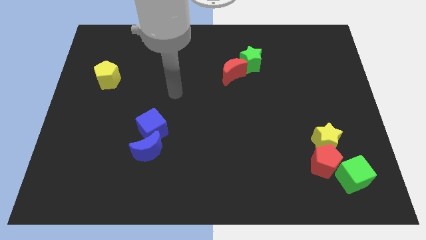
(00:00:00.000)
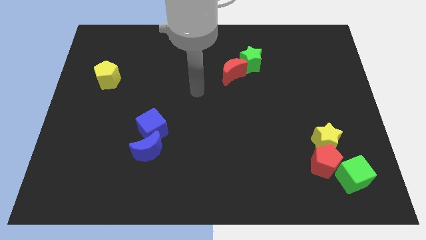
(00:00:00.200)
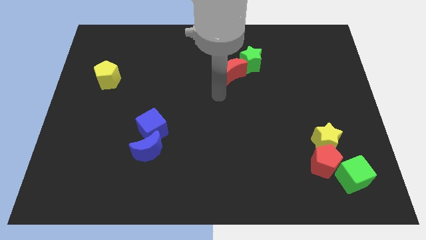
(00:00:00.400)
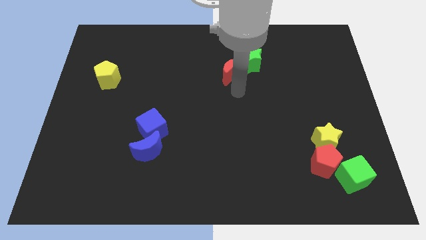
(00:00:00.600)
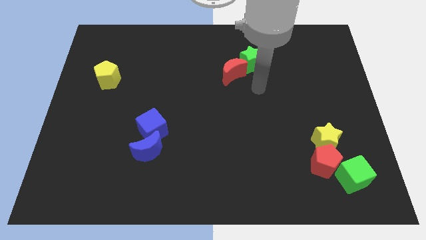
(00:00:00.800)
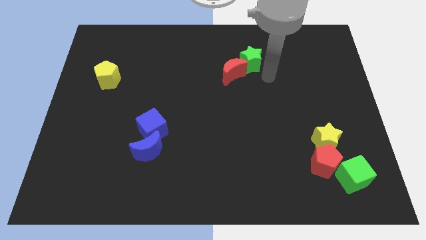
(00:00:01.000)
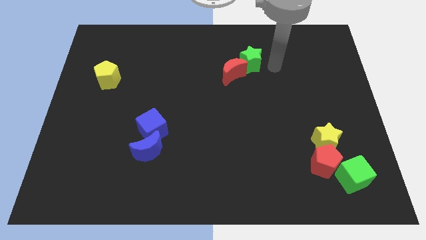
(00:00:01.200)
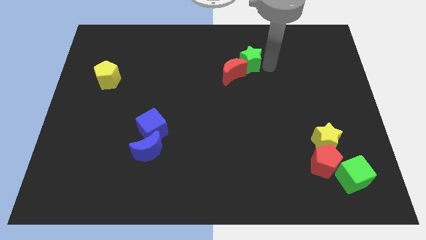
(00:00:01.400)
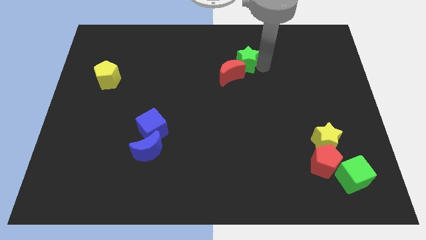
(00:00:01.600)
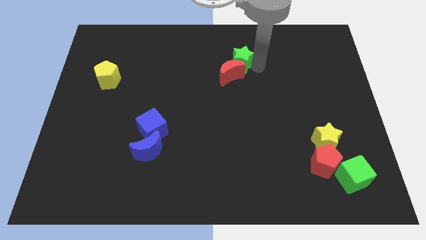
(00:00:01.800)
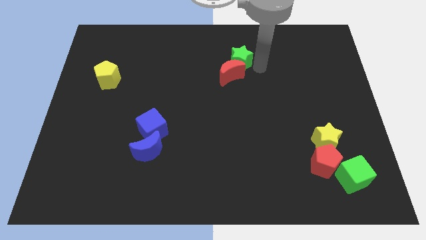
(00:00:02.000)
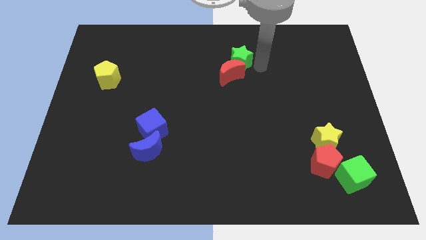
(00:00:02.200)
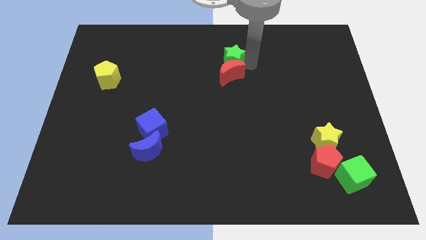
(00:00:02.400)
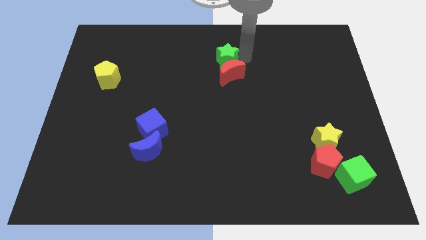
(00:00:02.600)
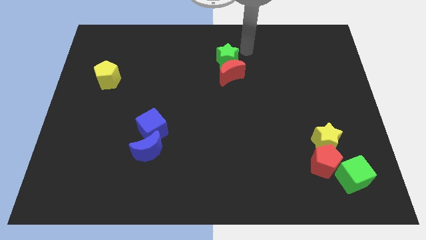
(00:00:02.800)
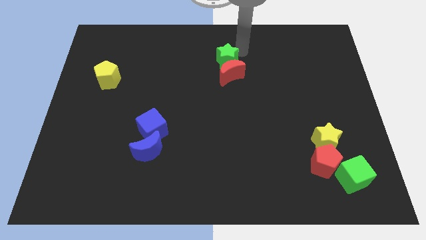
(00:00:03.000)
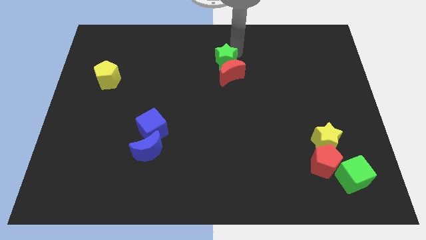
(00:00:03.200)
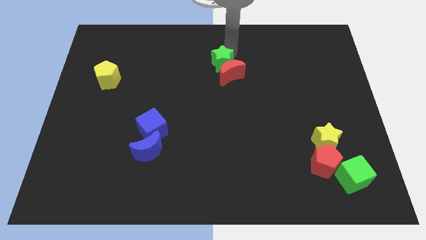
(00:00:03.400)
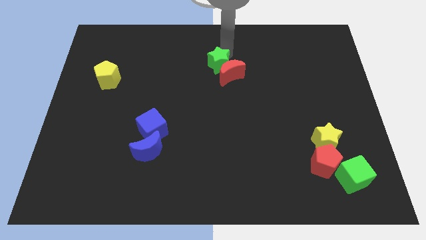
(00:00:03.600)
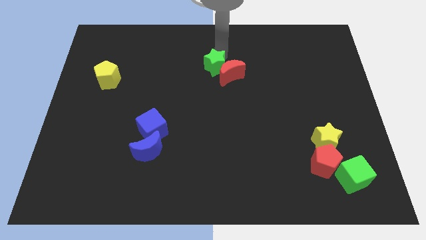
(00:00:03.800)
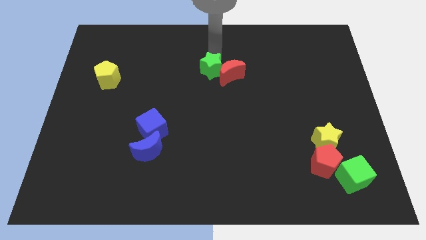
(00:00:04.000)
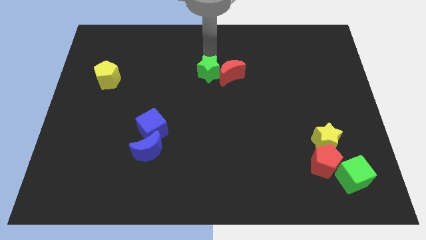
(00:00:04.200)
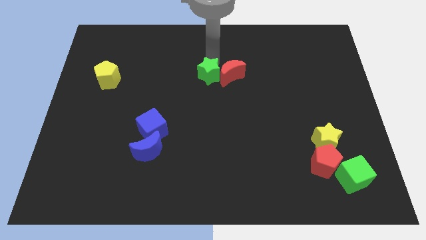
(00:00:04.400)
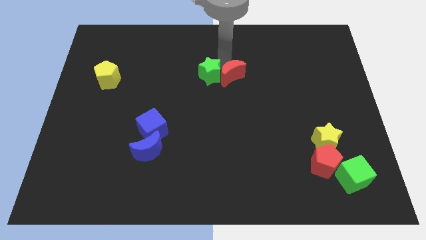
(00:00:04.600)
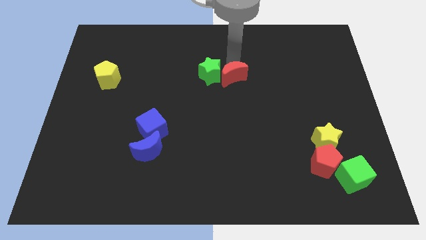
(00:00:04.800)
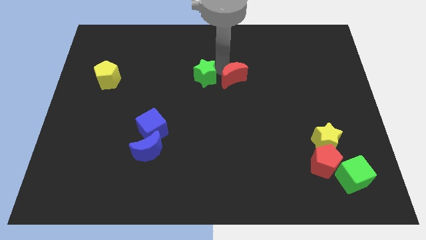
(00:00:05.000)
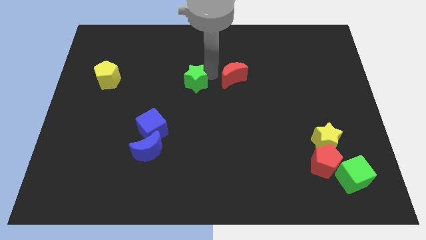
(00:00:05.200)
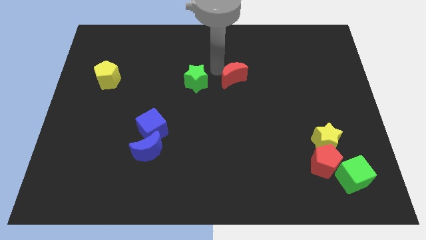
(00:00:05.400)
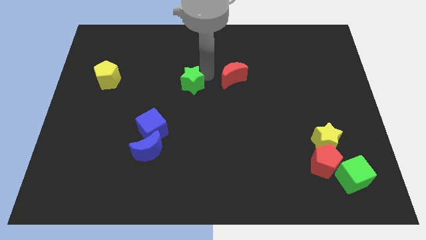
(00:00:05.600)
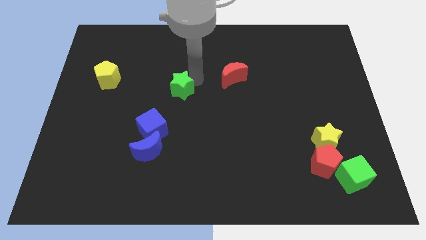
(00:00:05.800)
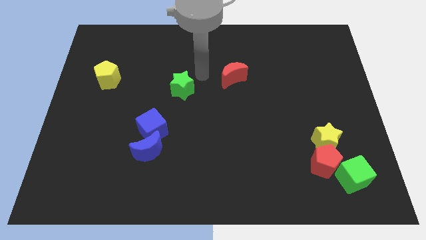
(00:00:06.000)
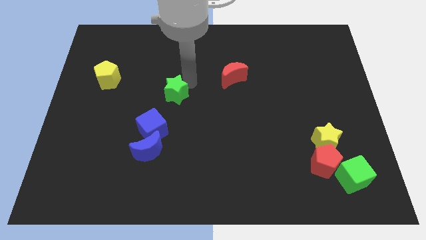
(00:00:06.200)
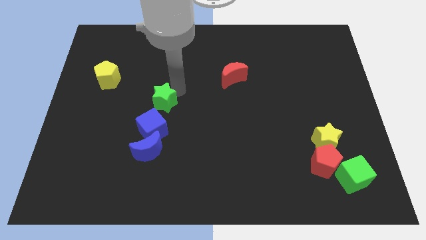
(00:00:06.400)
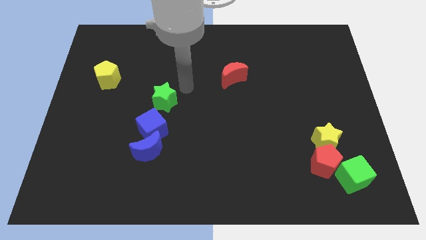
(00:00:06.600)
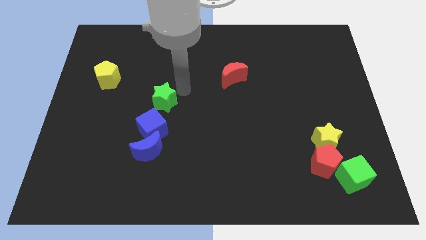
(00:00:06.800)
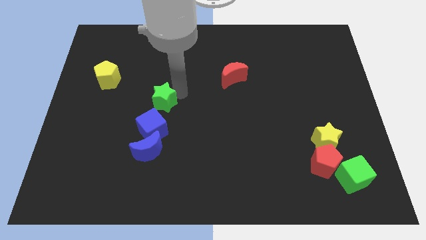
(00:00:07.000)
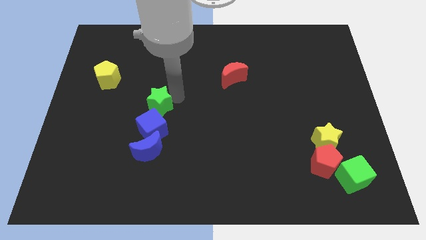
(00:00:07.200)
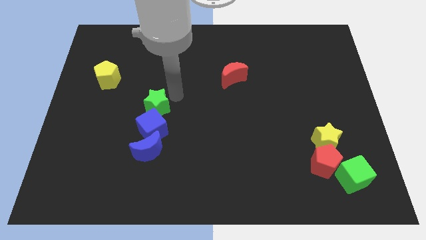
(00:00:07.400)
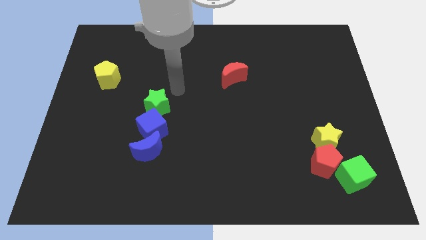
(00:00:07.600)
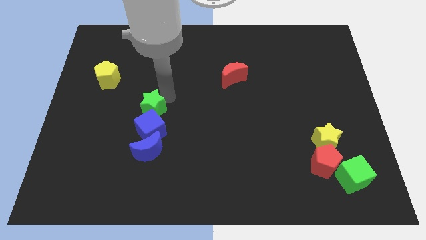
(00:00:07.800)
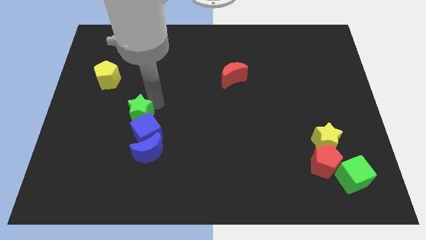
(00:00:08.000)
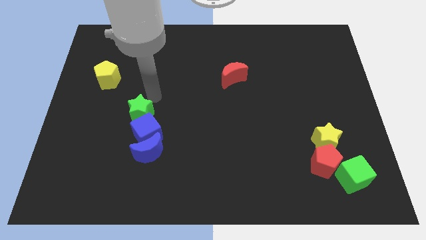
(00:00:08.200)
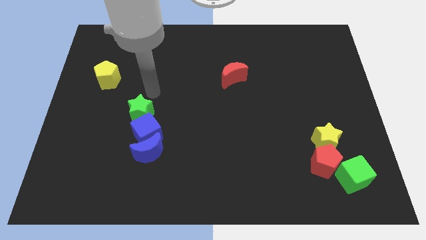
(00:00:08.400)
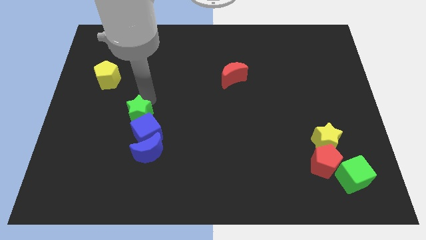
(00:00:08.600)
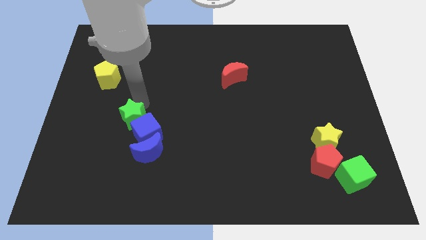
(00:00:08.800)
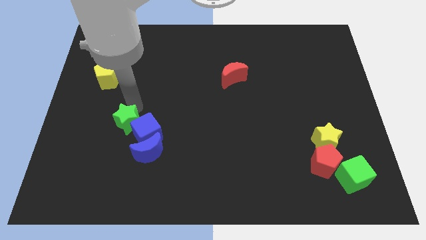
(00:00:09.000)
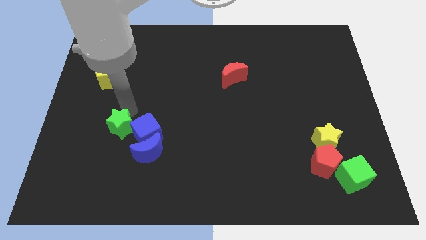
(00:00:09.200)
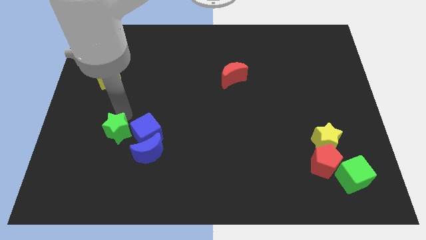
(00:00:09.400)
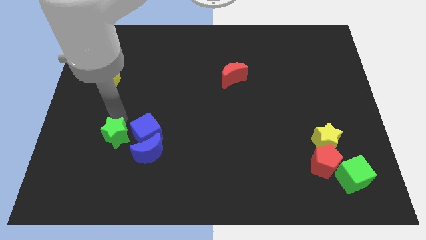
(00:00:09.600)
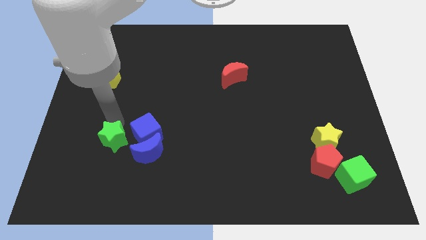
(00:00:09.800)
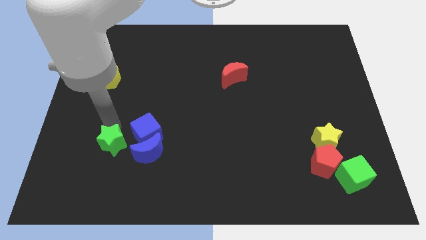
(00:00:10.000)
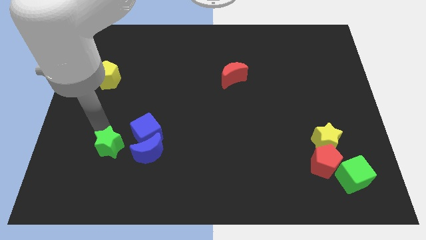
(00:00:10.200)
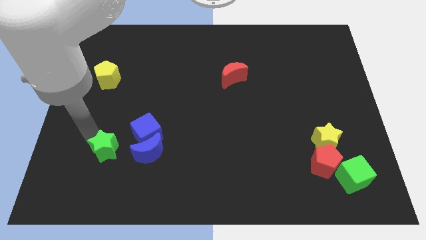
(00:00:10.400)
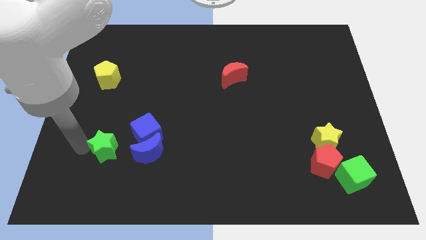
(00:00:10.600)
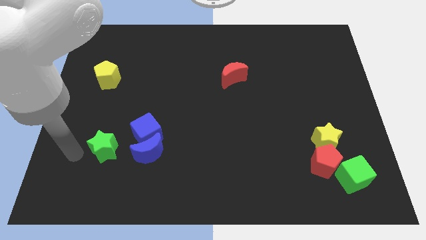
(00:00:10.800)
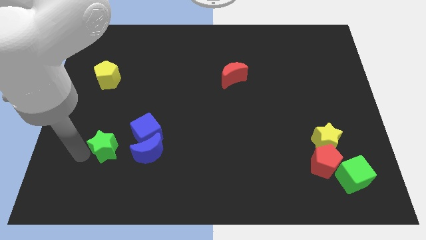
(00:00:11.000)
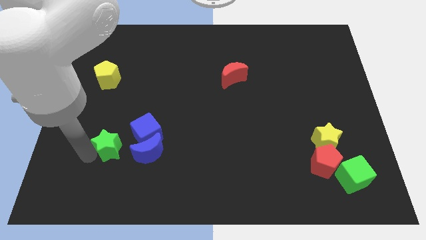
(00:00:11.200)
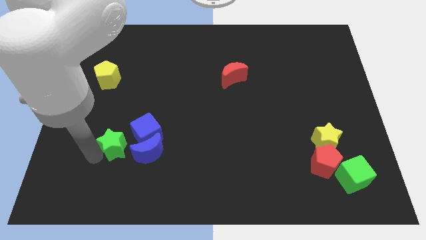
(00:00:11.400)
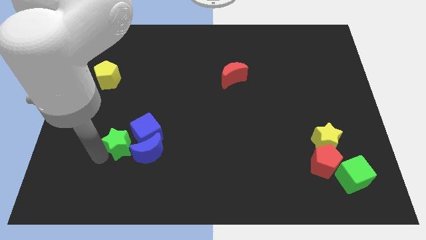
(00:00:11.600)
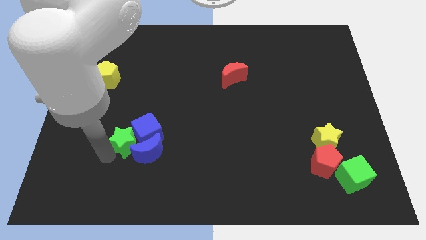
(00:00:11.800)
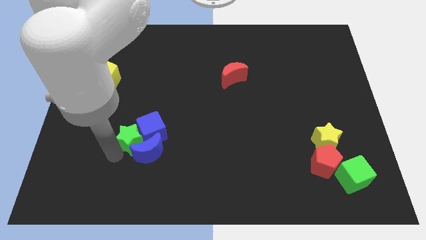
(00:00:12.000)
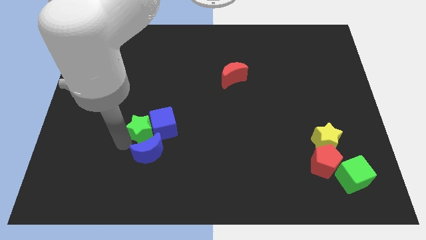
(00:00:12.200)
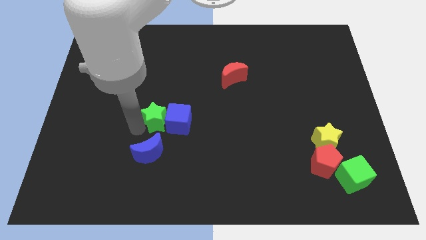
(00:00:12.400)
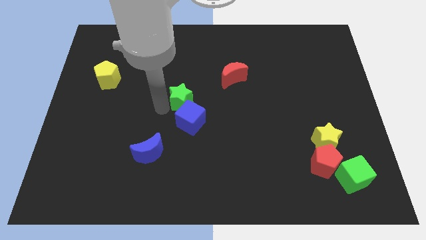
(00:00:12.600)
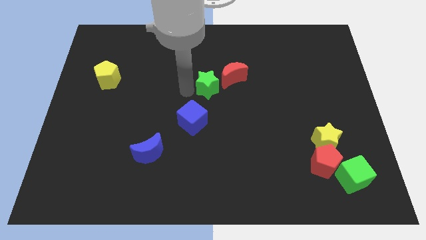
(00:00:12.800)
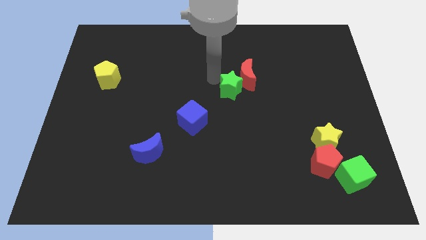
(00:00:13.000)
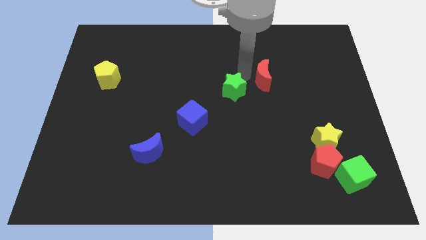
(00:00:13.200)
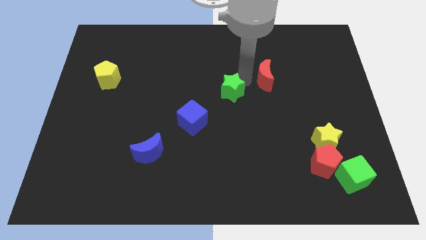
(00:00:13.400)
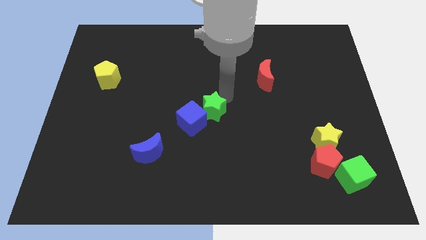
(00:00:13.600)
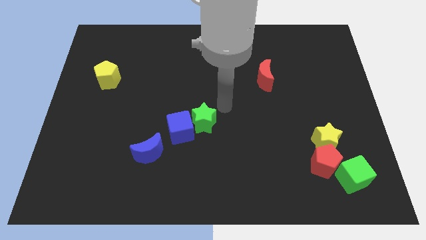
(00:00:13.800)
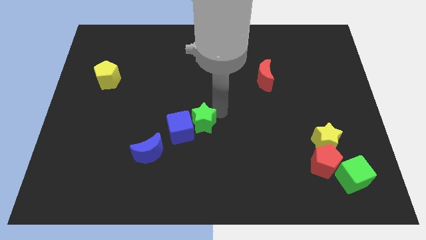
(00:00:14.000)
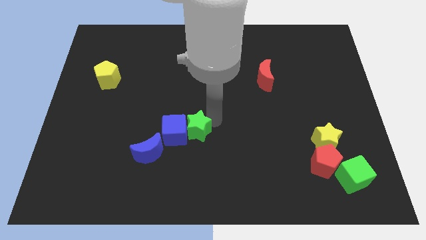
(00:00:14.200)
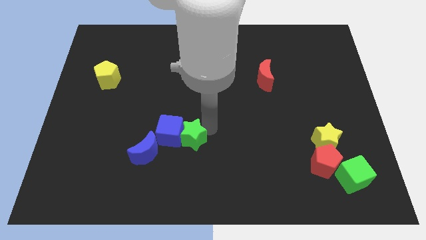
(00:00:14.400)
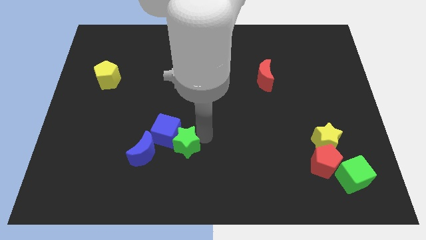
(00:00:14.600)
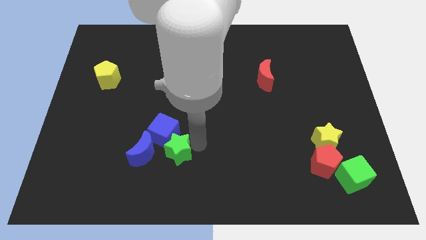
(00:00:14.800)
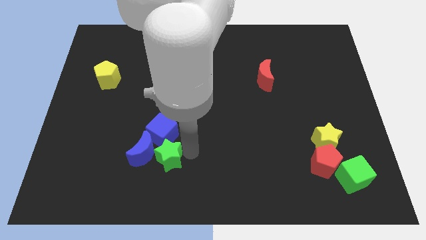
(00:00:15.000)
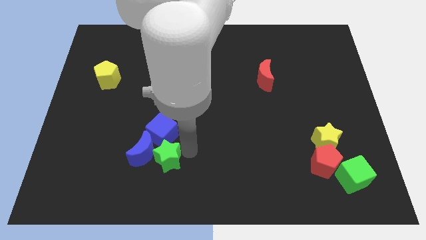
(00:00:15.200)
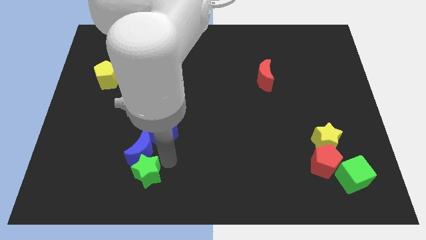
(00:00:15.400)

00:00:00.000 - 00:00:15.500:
push the green star to the bottom left side of the blue moon

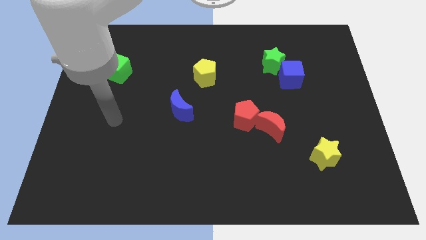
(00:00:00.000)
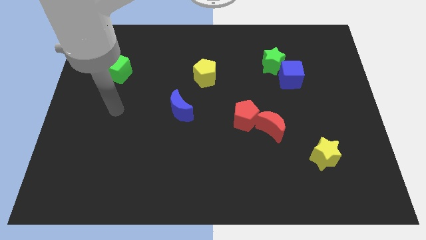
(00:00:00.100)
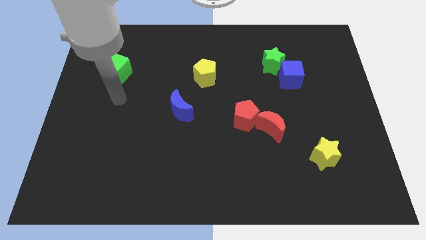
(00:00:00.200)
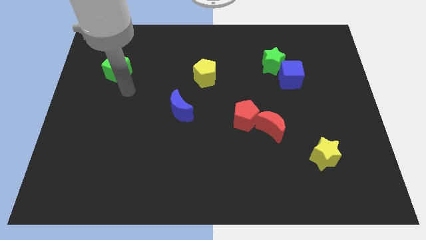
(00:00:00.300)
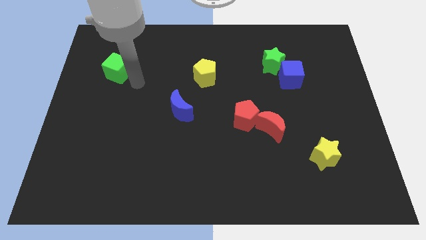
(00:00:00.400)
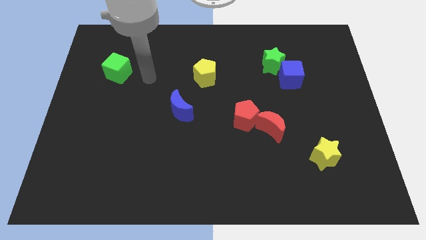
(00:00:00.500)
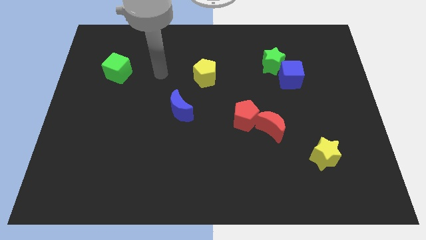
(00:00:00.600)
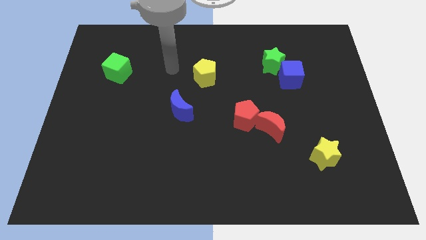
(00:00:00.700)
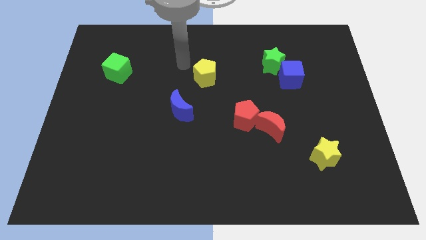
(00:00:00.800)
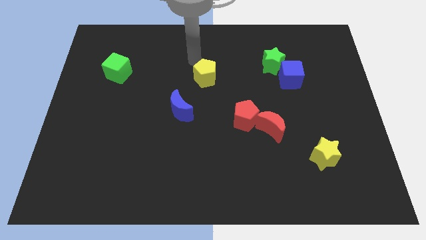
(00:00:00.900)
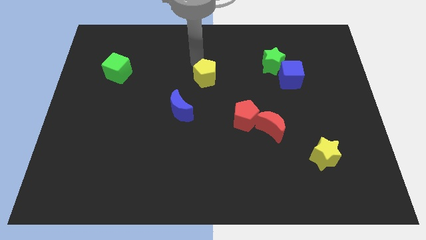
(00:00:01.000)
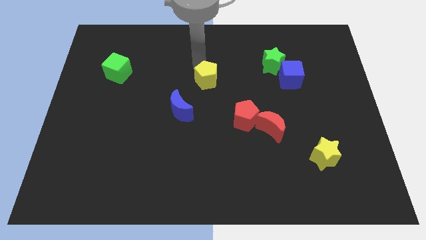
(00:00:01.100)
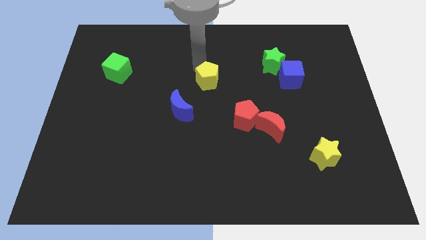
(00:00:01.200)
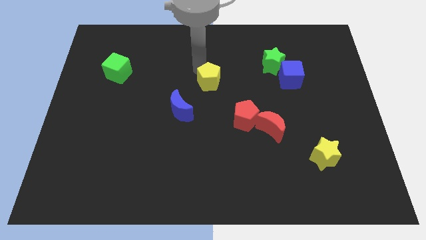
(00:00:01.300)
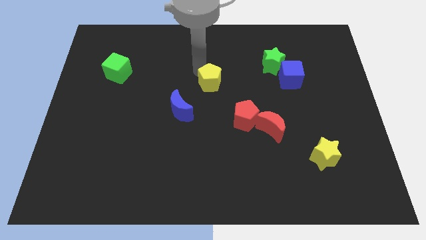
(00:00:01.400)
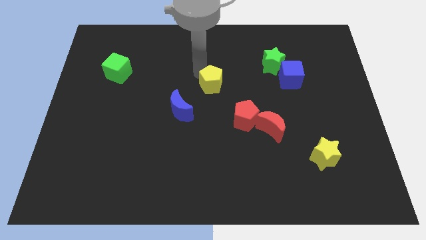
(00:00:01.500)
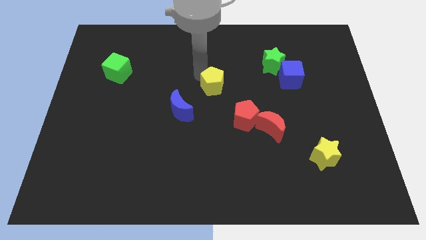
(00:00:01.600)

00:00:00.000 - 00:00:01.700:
slide the yellow pentagon diagonally up and to the left of the red pentagon
